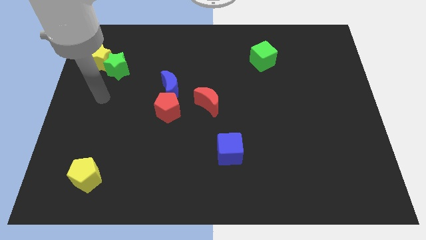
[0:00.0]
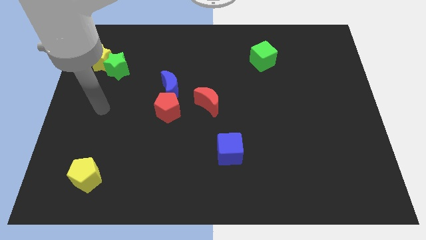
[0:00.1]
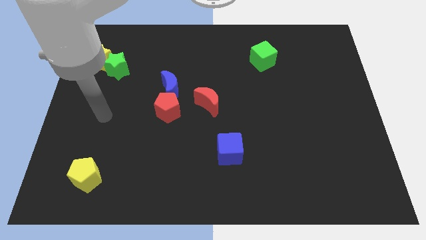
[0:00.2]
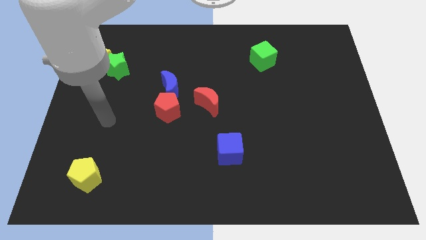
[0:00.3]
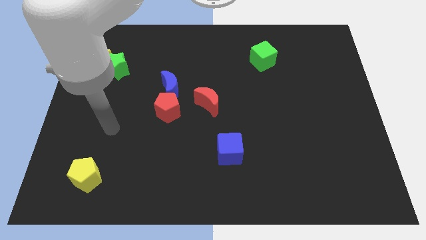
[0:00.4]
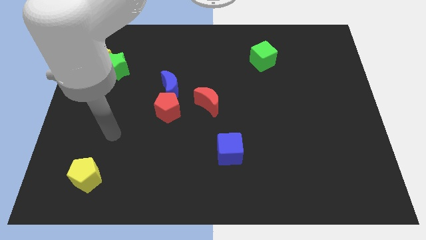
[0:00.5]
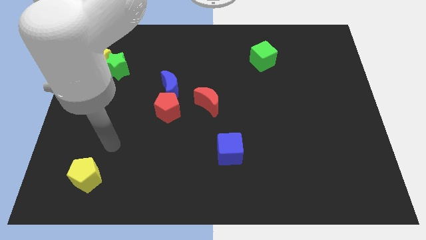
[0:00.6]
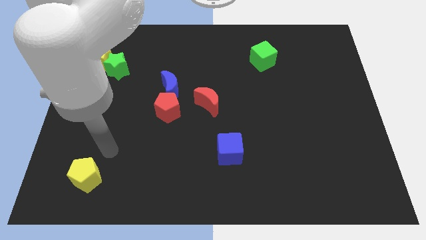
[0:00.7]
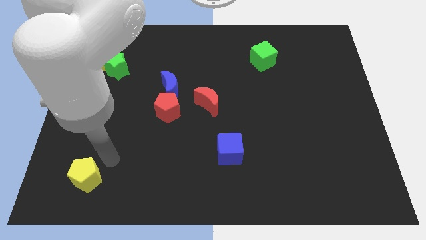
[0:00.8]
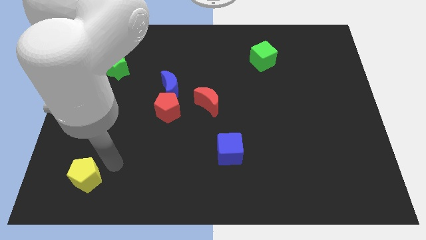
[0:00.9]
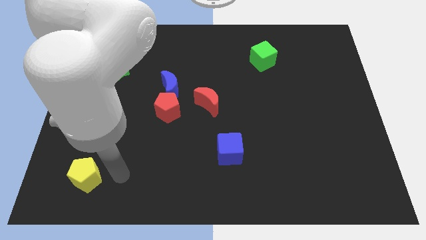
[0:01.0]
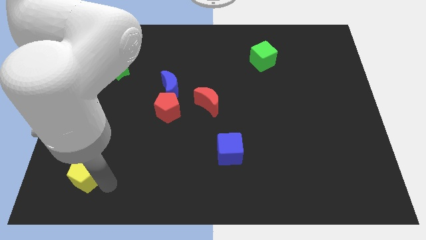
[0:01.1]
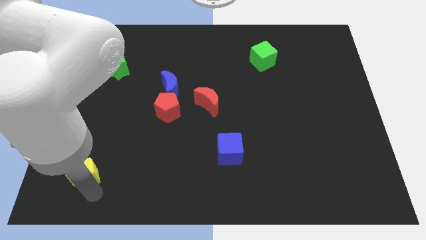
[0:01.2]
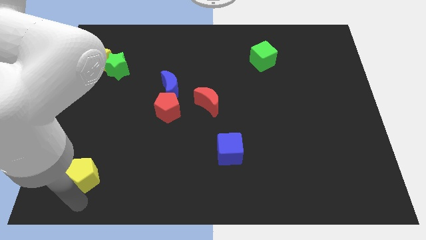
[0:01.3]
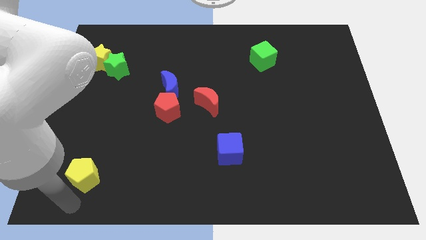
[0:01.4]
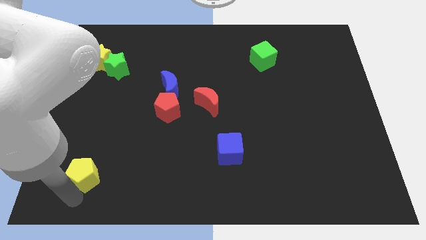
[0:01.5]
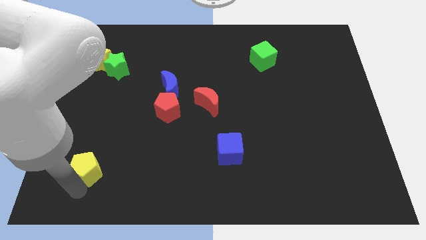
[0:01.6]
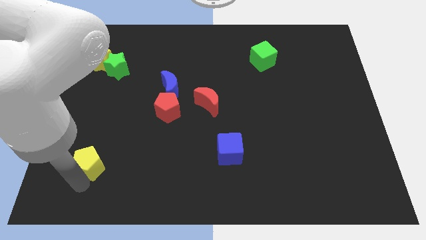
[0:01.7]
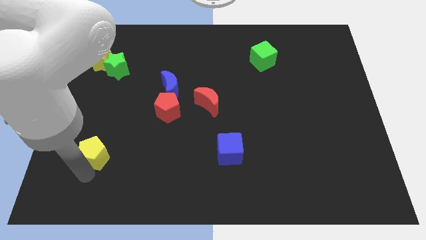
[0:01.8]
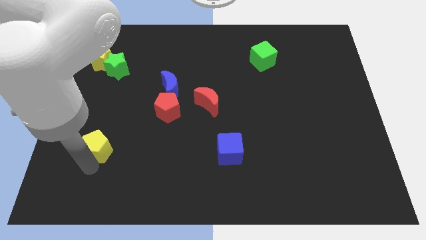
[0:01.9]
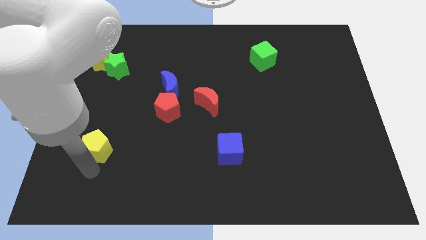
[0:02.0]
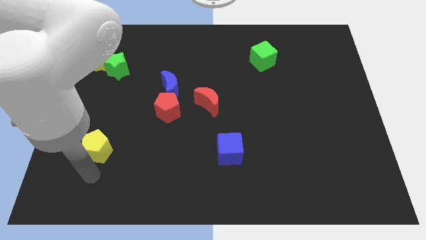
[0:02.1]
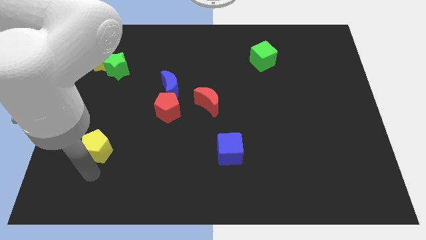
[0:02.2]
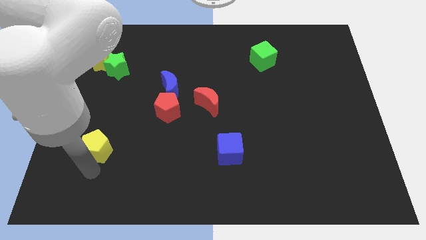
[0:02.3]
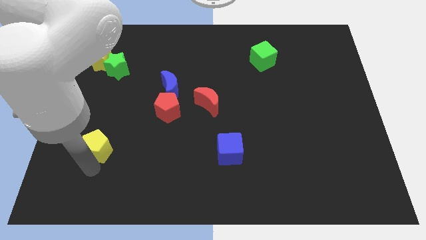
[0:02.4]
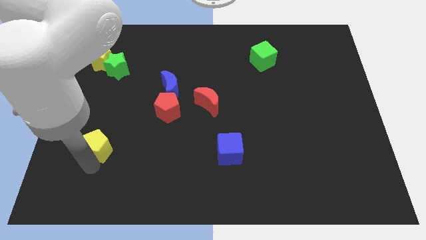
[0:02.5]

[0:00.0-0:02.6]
slightly move the yellow pentagon upwards

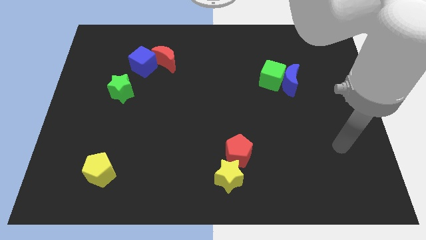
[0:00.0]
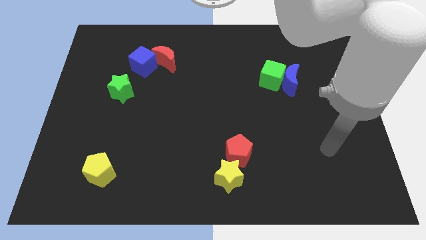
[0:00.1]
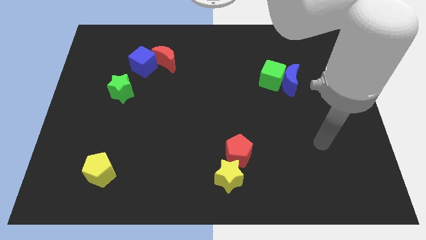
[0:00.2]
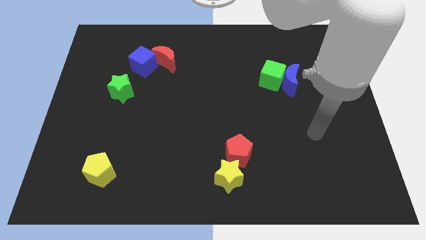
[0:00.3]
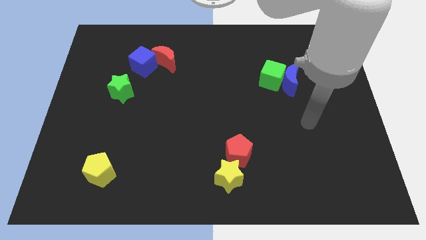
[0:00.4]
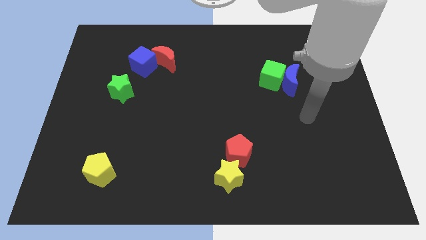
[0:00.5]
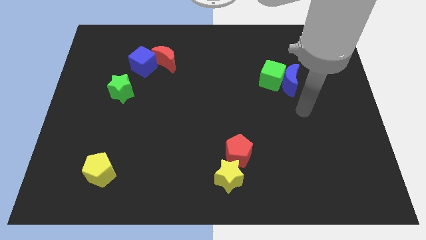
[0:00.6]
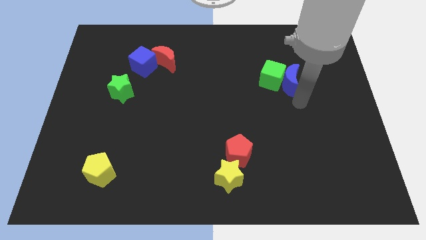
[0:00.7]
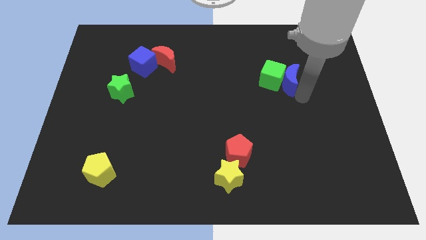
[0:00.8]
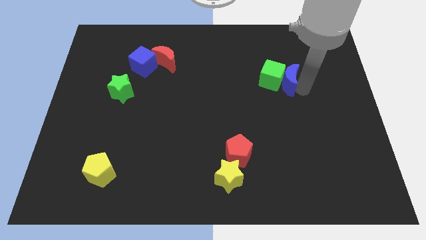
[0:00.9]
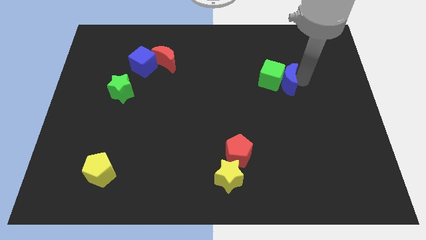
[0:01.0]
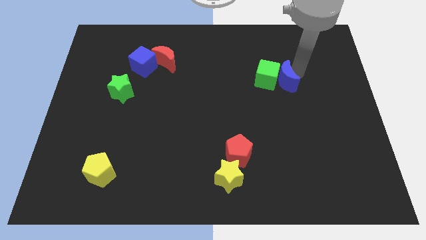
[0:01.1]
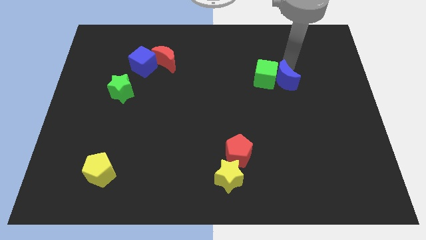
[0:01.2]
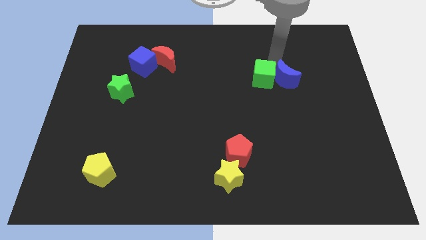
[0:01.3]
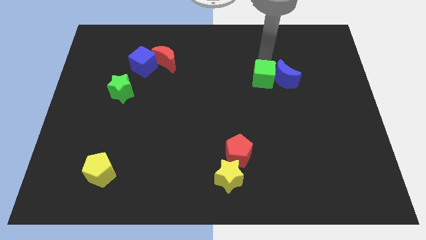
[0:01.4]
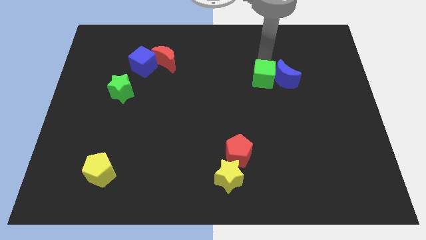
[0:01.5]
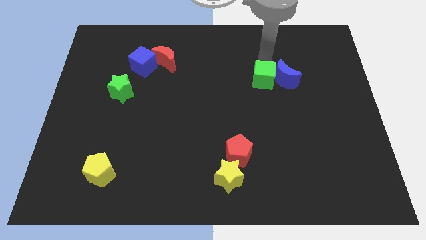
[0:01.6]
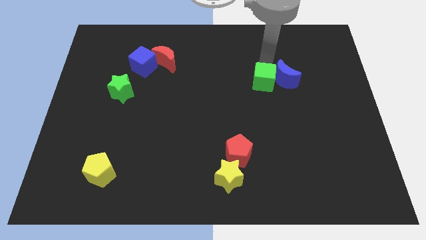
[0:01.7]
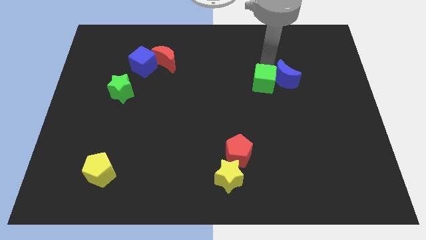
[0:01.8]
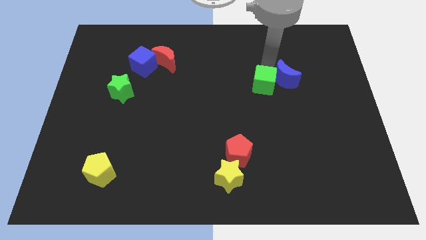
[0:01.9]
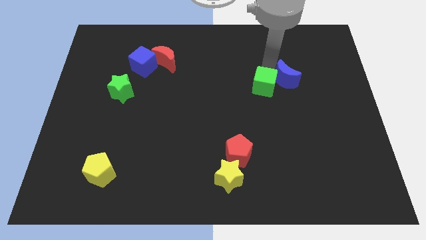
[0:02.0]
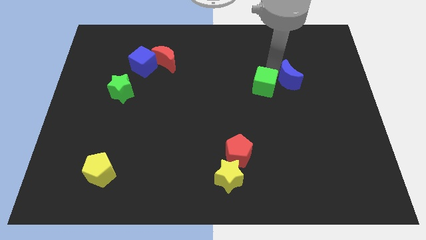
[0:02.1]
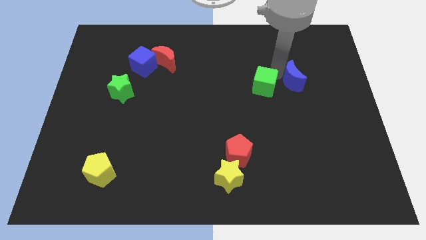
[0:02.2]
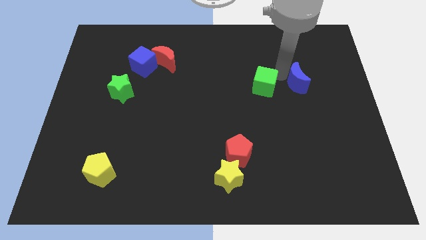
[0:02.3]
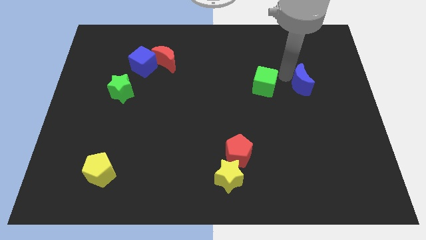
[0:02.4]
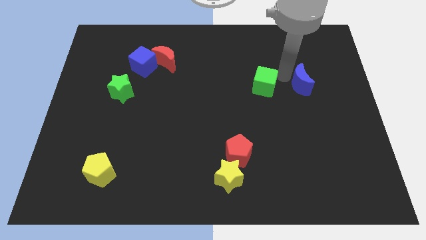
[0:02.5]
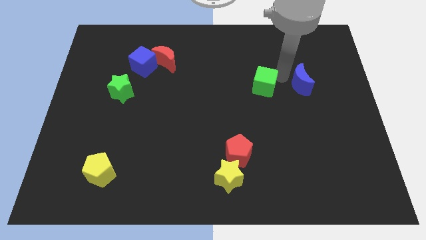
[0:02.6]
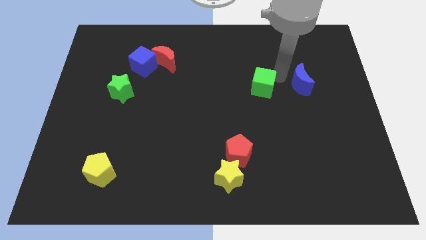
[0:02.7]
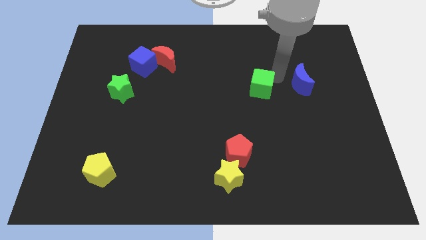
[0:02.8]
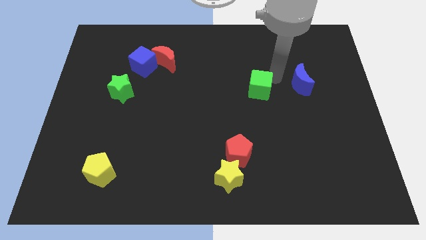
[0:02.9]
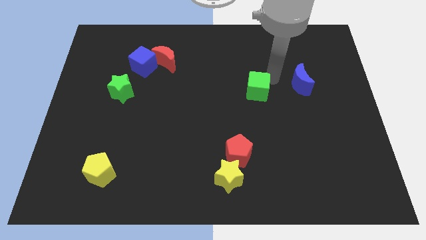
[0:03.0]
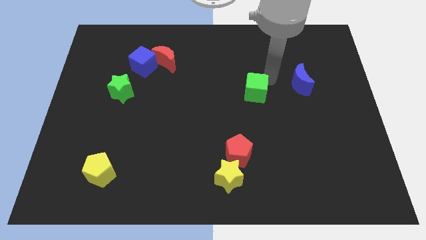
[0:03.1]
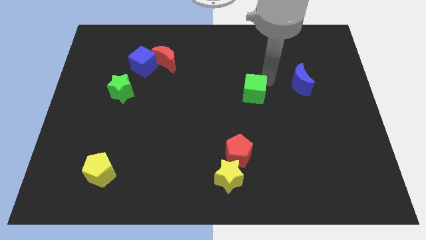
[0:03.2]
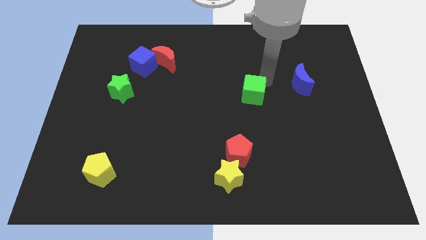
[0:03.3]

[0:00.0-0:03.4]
slide the green cube down and left a little bit

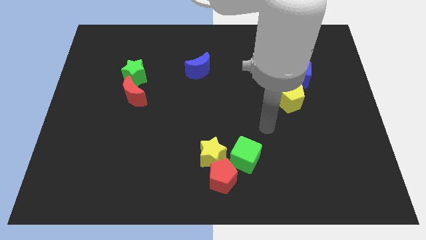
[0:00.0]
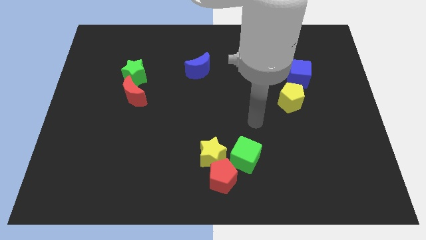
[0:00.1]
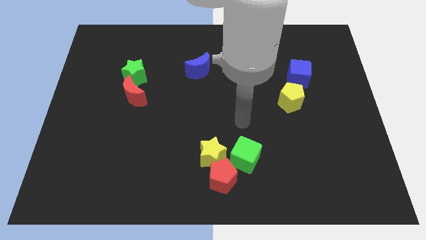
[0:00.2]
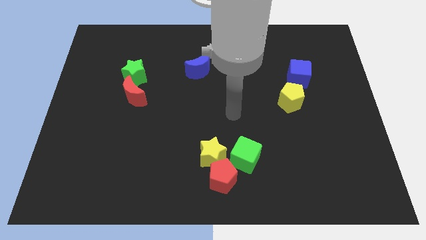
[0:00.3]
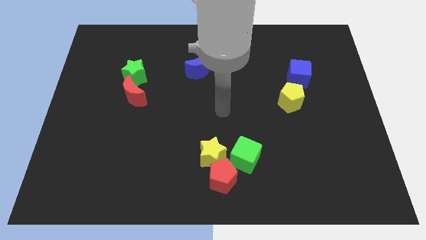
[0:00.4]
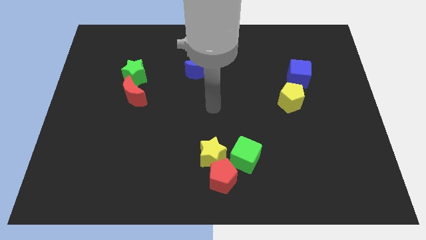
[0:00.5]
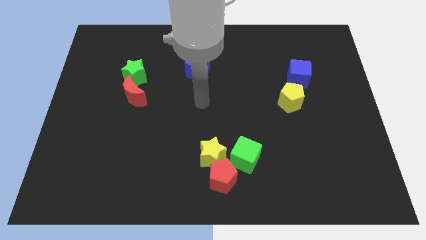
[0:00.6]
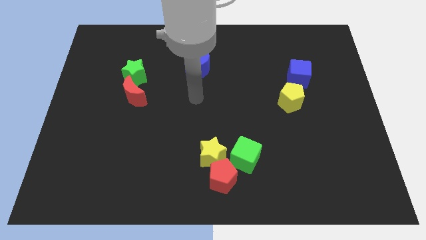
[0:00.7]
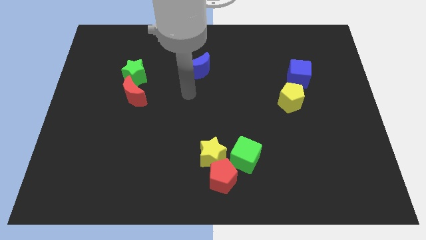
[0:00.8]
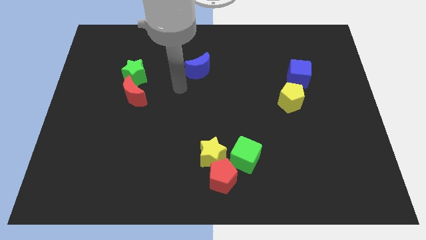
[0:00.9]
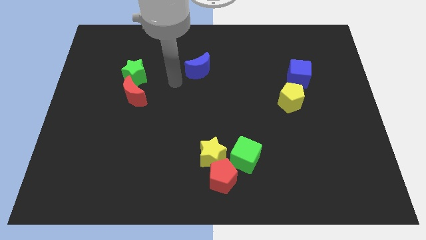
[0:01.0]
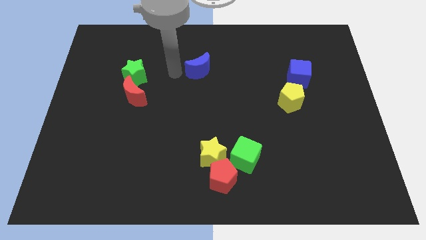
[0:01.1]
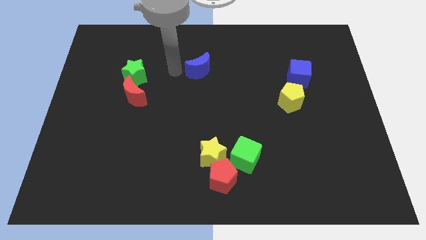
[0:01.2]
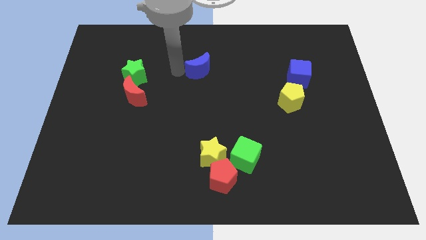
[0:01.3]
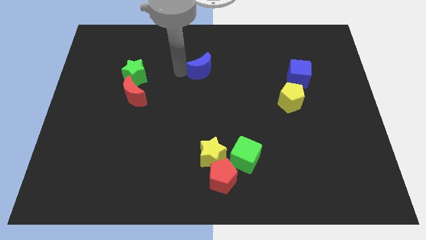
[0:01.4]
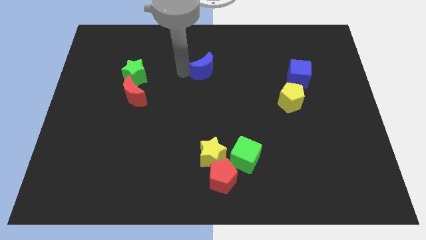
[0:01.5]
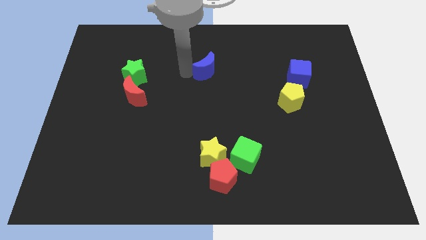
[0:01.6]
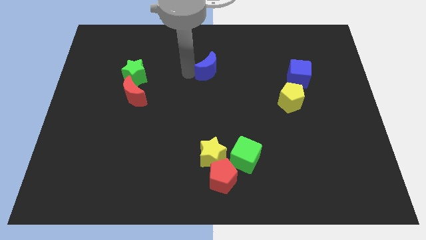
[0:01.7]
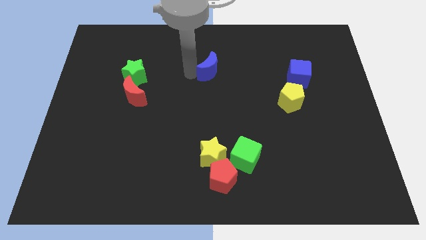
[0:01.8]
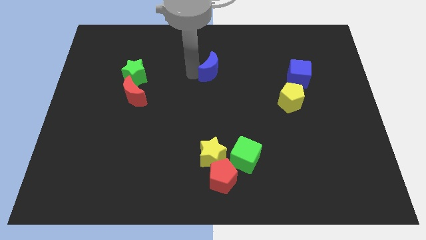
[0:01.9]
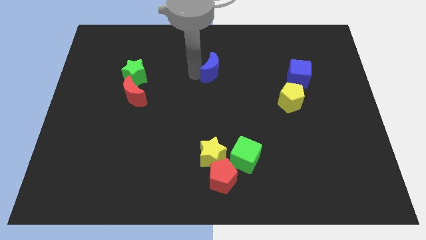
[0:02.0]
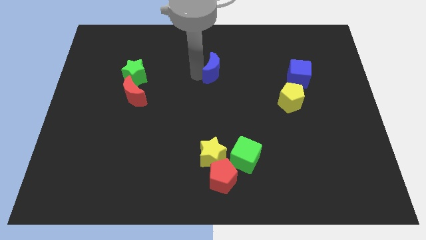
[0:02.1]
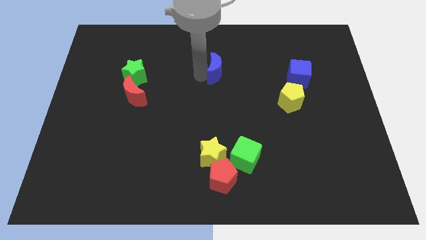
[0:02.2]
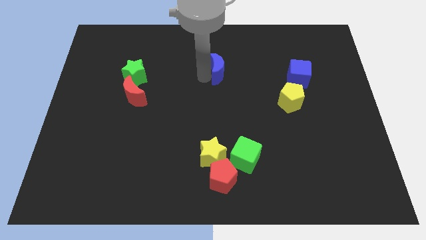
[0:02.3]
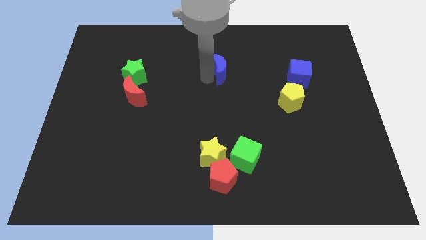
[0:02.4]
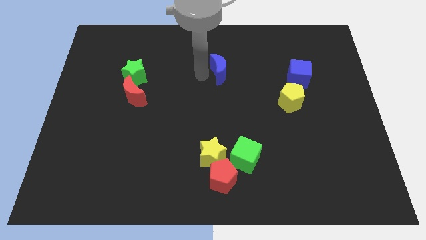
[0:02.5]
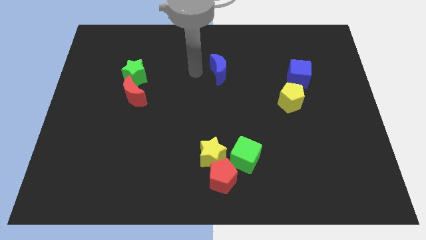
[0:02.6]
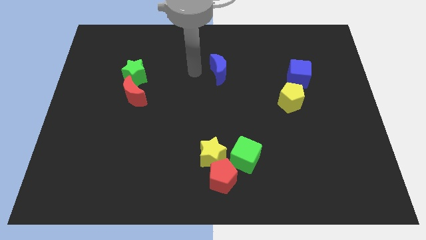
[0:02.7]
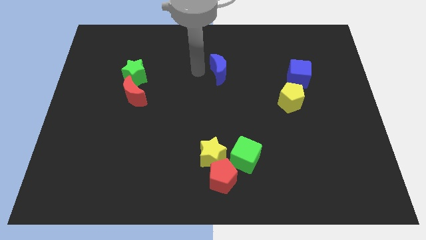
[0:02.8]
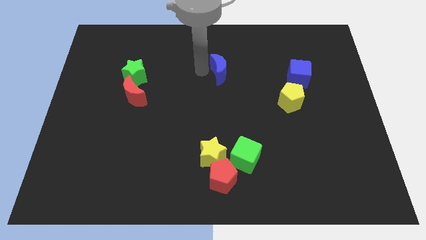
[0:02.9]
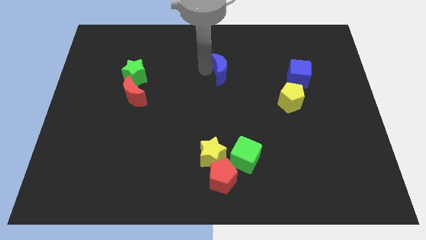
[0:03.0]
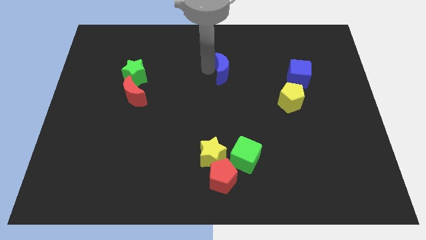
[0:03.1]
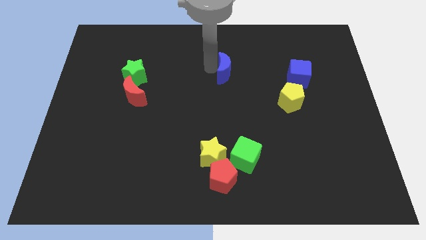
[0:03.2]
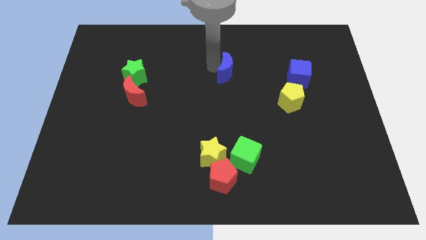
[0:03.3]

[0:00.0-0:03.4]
push the blue moon to the right somewhat
